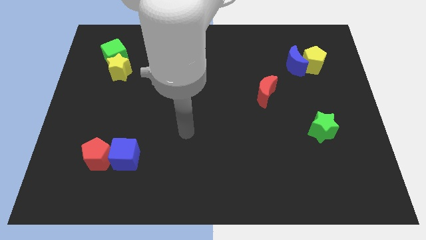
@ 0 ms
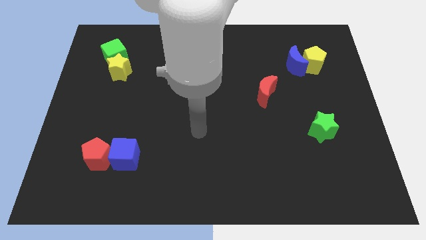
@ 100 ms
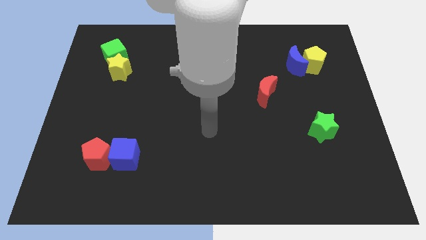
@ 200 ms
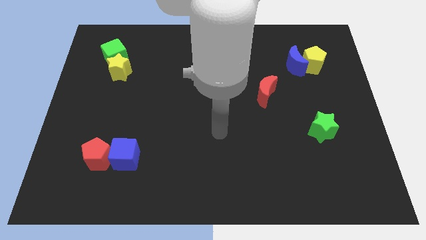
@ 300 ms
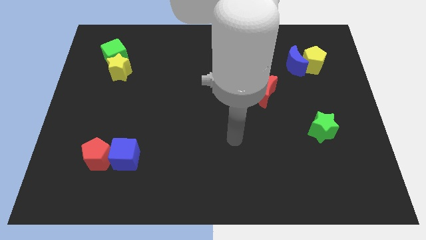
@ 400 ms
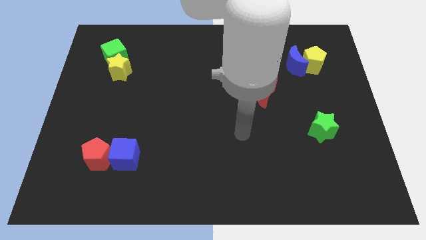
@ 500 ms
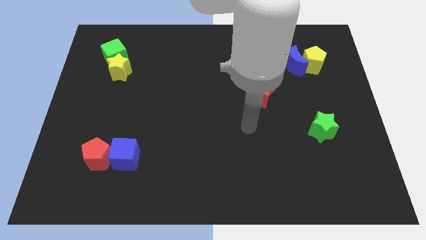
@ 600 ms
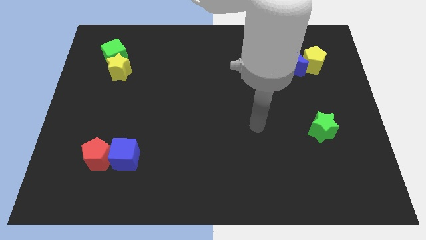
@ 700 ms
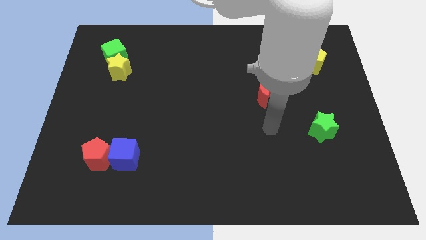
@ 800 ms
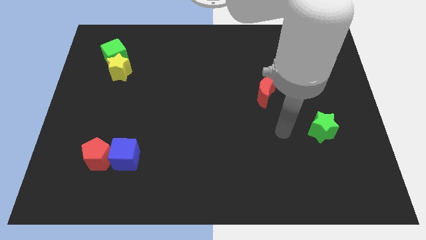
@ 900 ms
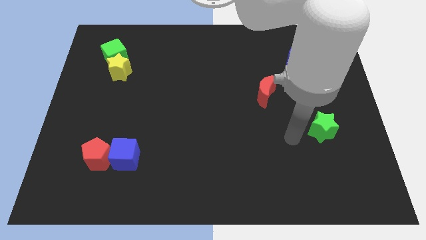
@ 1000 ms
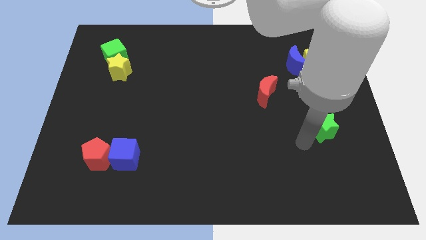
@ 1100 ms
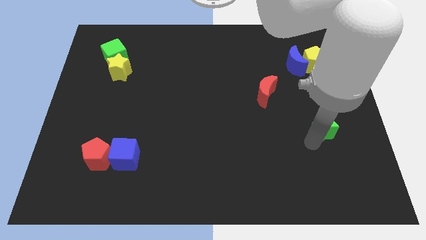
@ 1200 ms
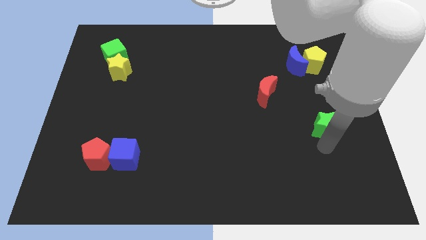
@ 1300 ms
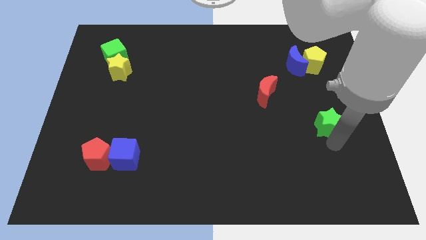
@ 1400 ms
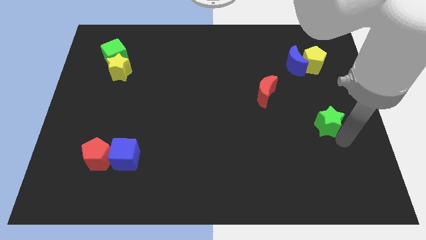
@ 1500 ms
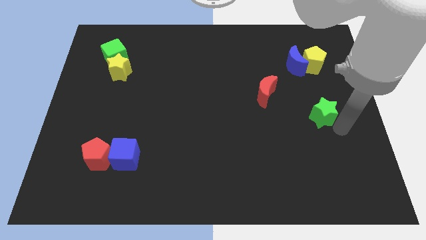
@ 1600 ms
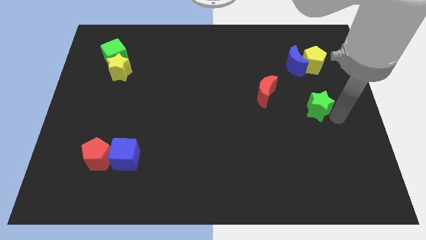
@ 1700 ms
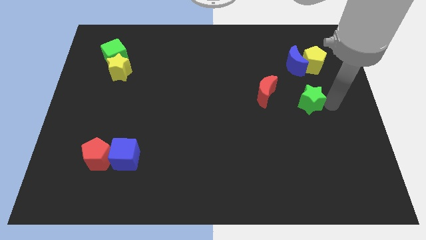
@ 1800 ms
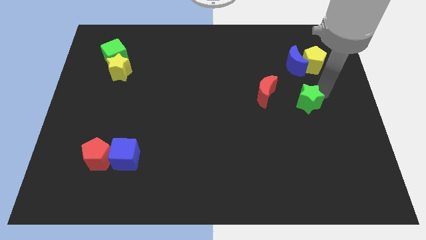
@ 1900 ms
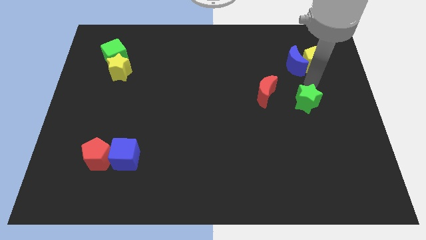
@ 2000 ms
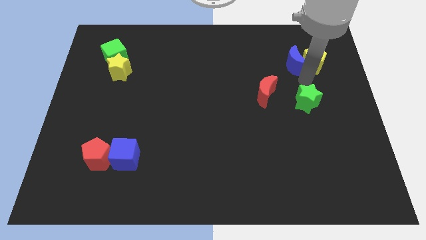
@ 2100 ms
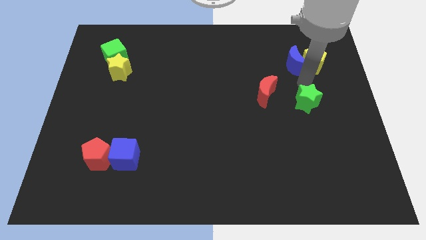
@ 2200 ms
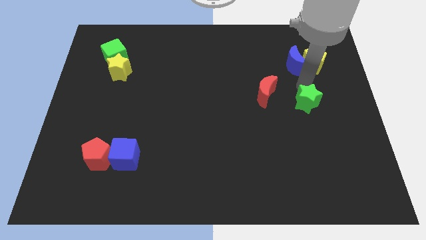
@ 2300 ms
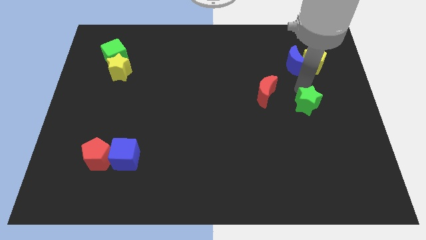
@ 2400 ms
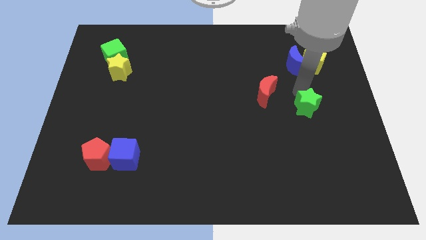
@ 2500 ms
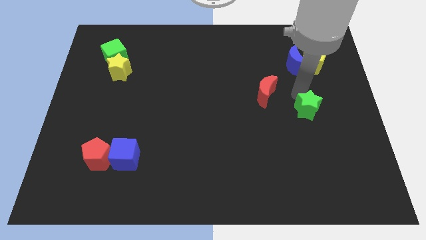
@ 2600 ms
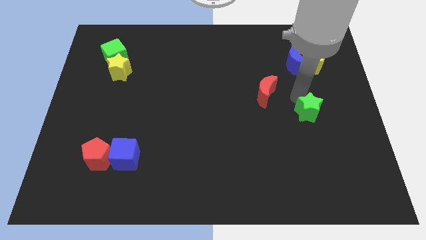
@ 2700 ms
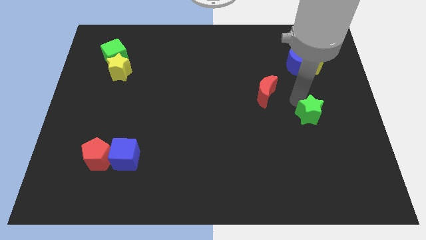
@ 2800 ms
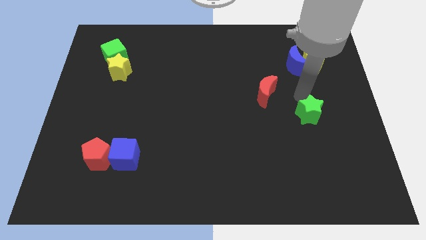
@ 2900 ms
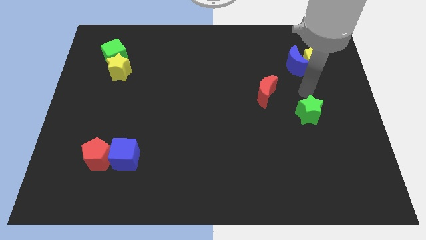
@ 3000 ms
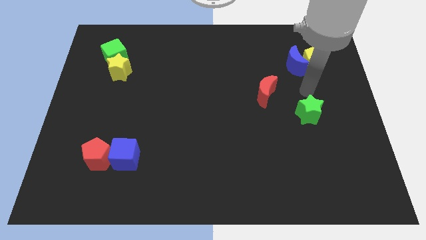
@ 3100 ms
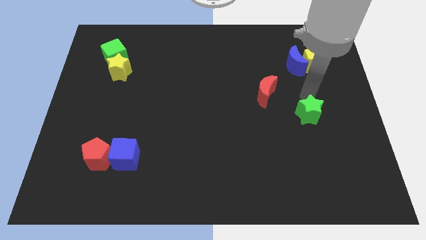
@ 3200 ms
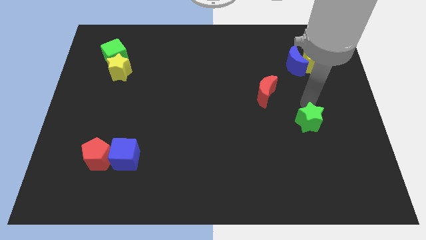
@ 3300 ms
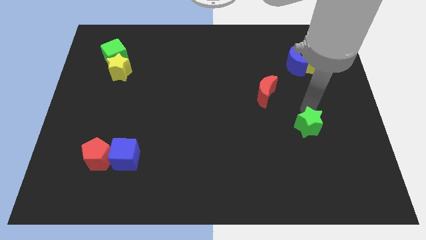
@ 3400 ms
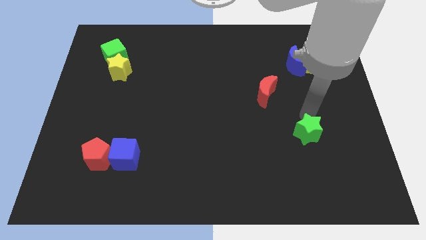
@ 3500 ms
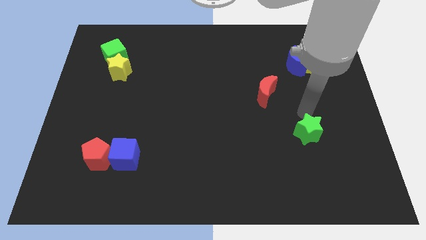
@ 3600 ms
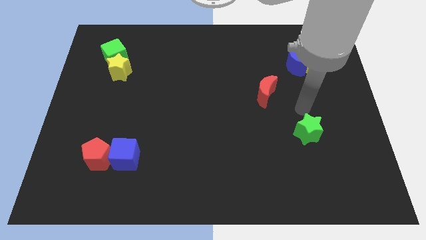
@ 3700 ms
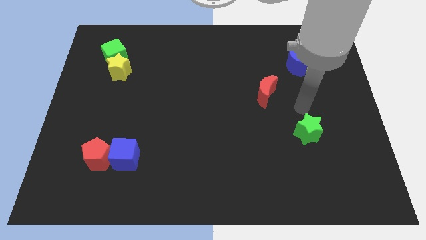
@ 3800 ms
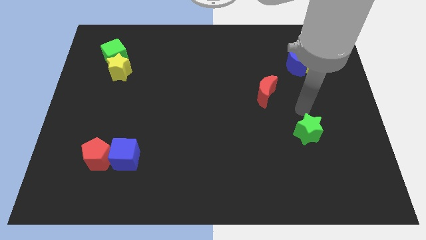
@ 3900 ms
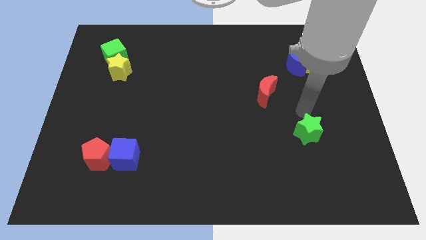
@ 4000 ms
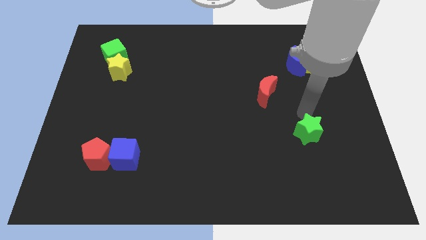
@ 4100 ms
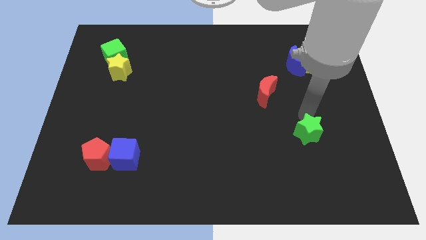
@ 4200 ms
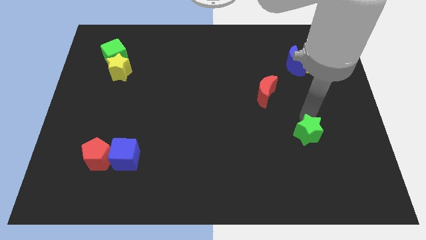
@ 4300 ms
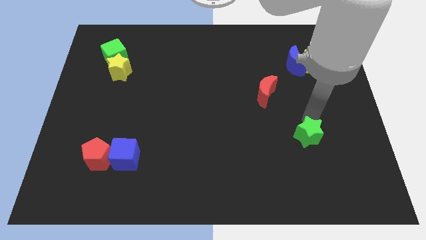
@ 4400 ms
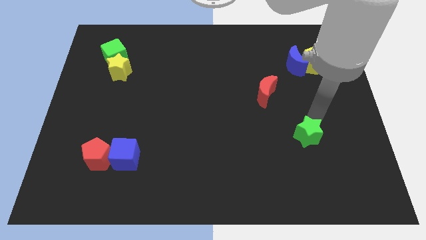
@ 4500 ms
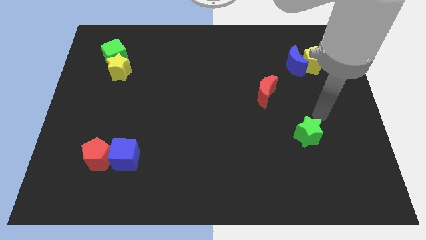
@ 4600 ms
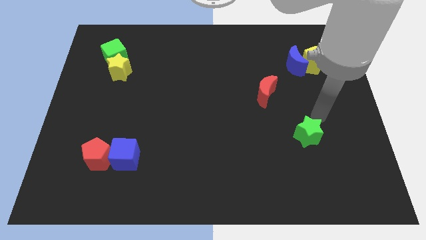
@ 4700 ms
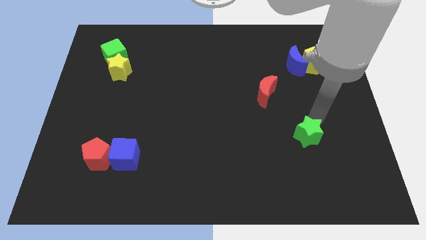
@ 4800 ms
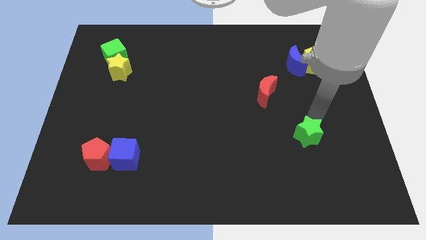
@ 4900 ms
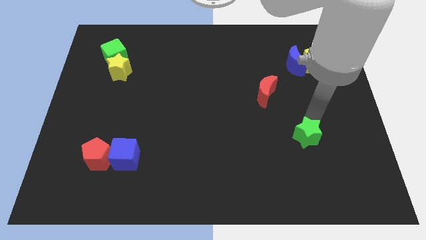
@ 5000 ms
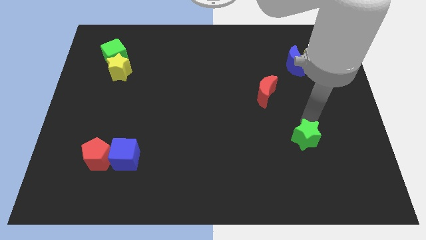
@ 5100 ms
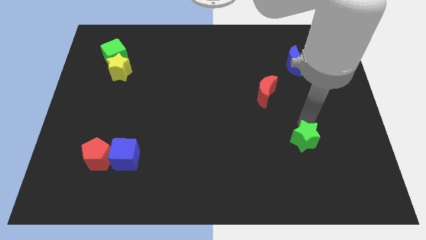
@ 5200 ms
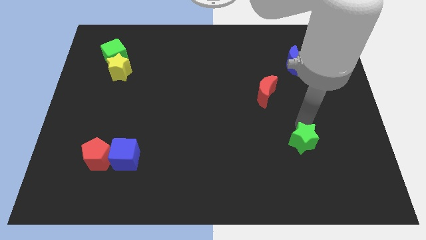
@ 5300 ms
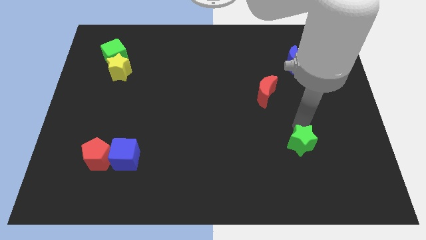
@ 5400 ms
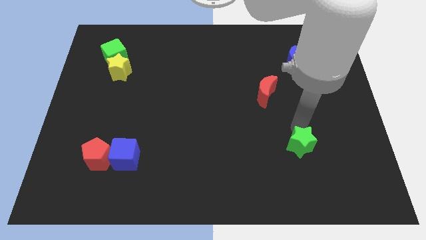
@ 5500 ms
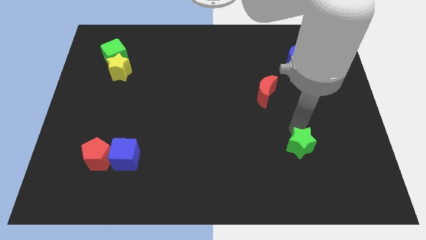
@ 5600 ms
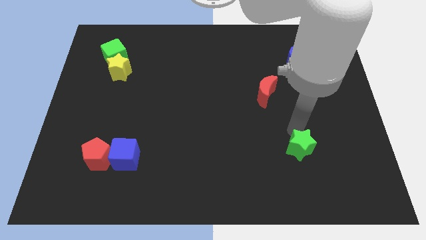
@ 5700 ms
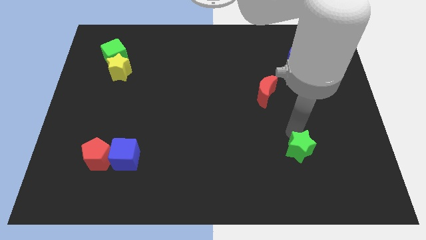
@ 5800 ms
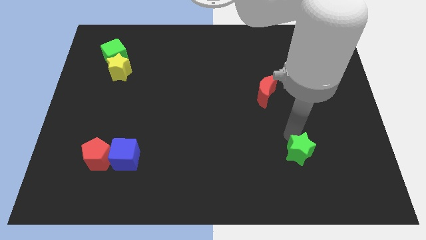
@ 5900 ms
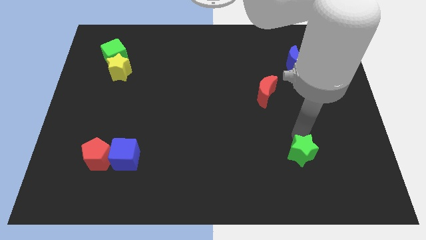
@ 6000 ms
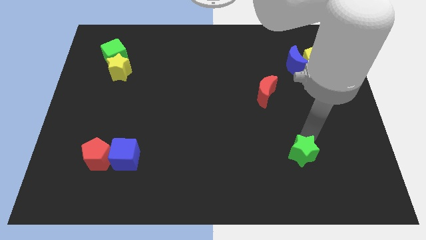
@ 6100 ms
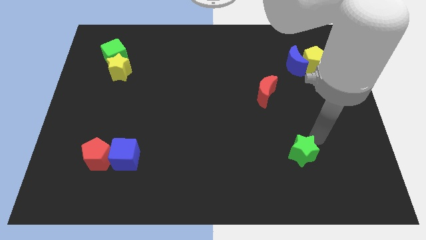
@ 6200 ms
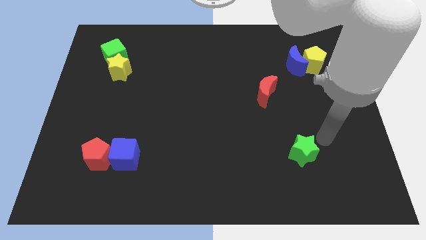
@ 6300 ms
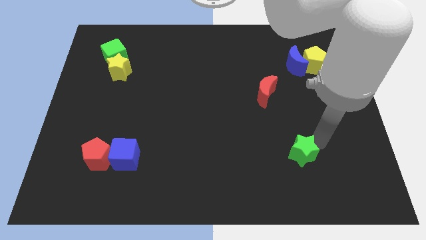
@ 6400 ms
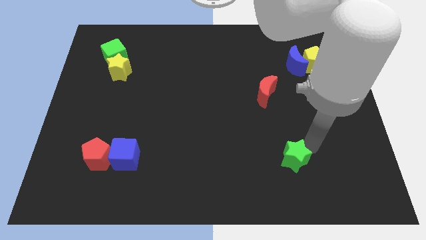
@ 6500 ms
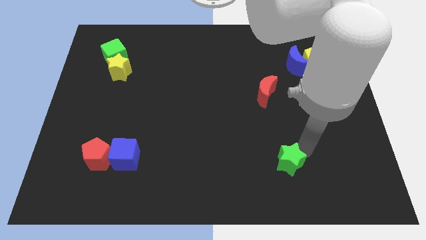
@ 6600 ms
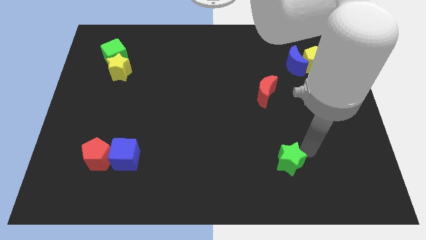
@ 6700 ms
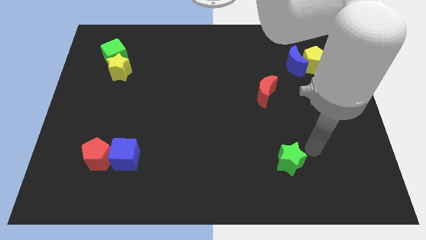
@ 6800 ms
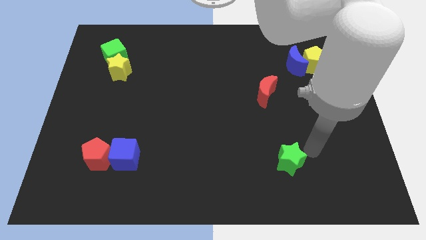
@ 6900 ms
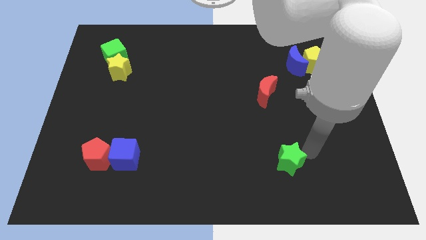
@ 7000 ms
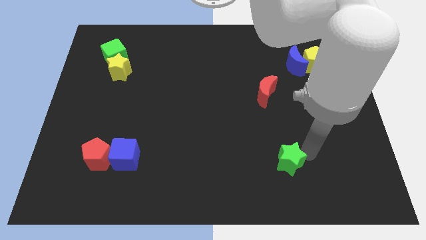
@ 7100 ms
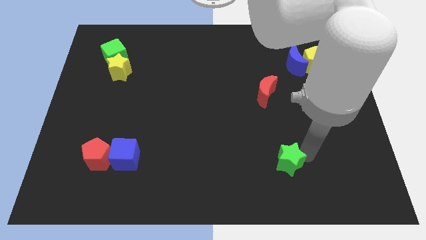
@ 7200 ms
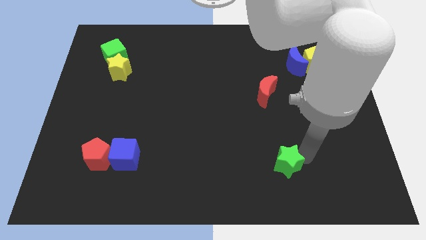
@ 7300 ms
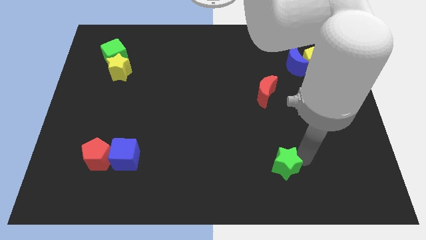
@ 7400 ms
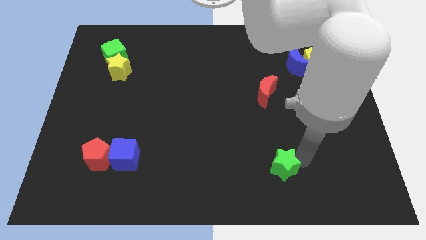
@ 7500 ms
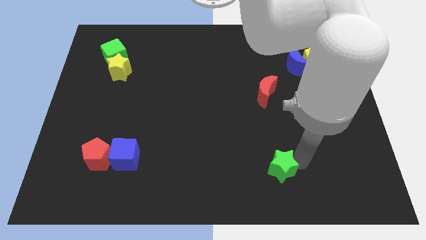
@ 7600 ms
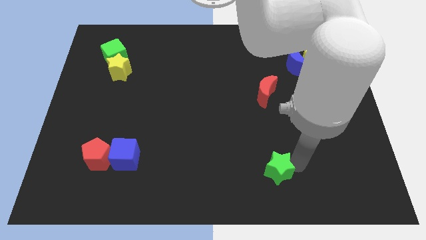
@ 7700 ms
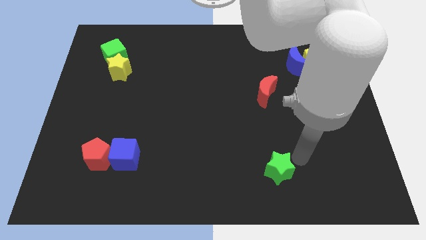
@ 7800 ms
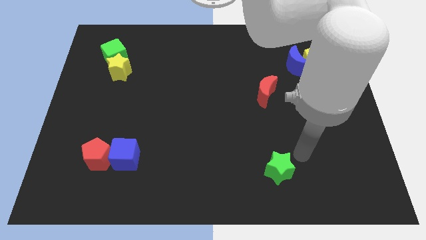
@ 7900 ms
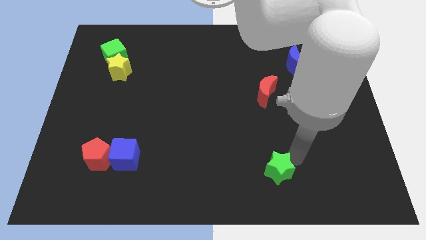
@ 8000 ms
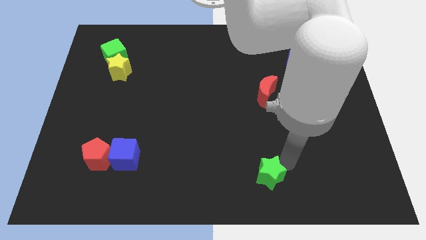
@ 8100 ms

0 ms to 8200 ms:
push the green star to the bottom side
